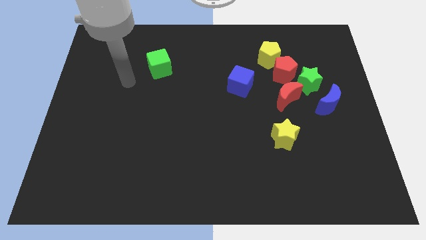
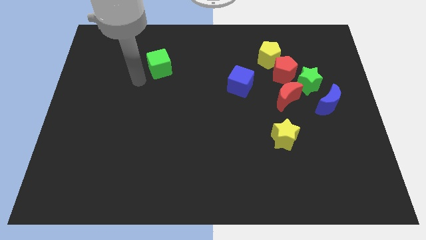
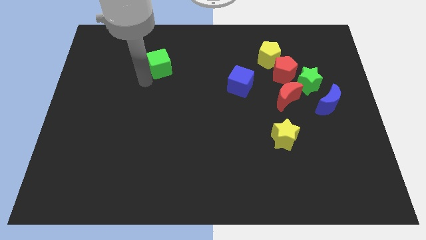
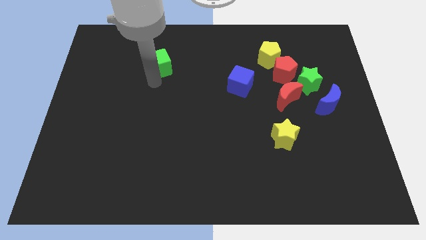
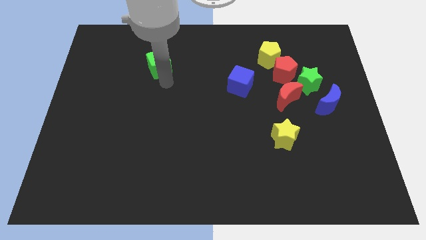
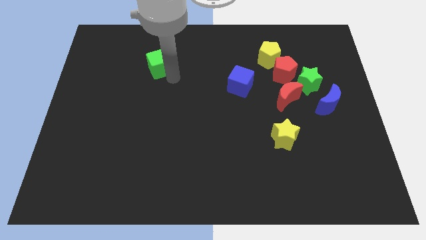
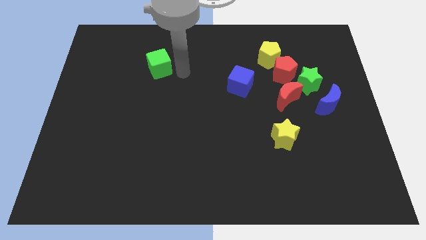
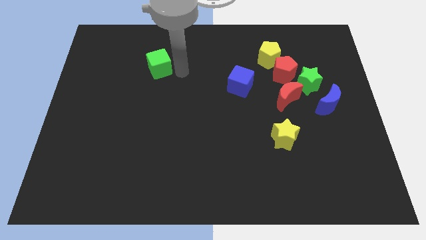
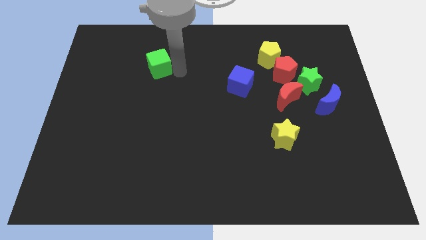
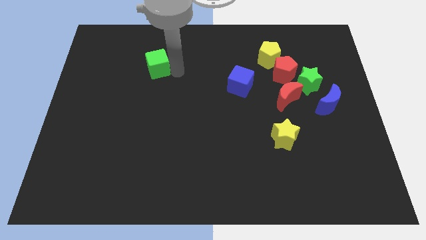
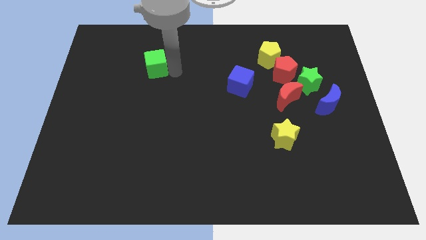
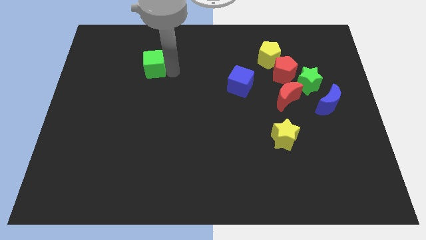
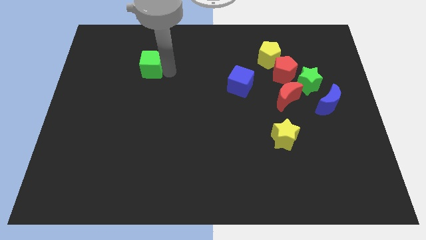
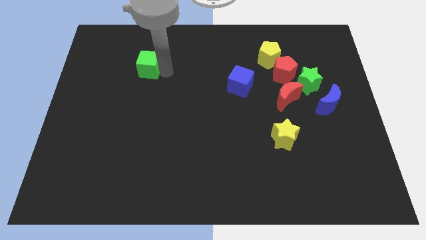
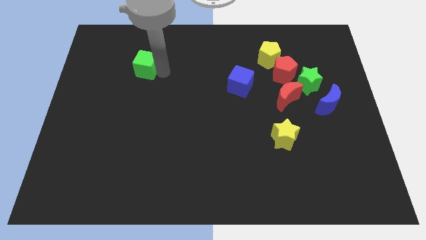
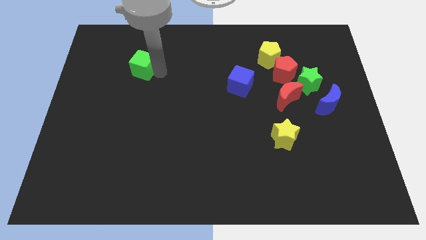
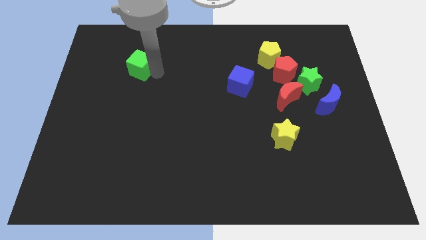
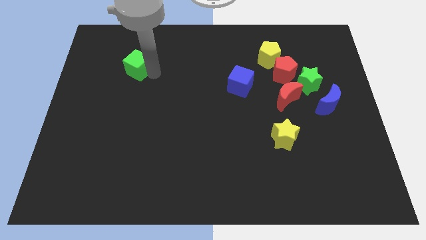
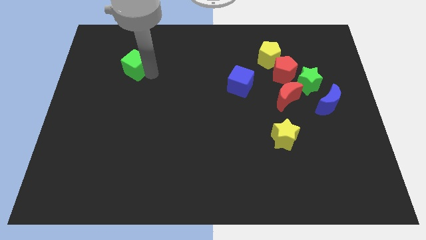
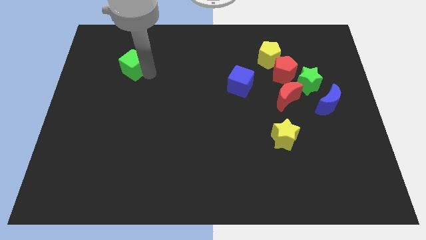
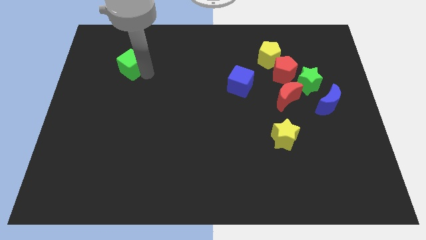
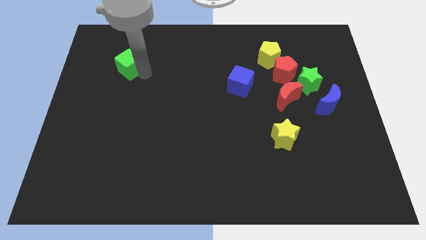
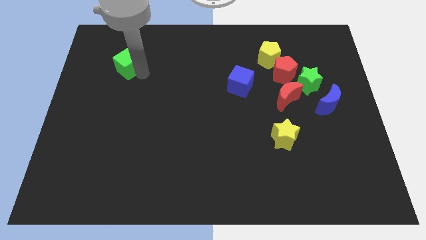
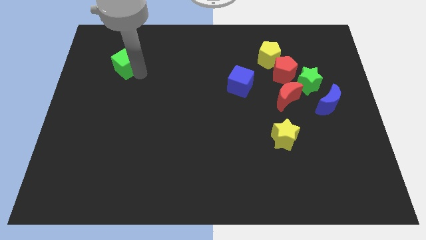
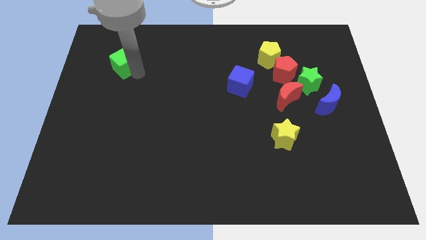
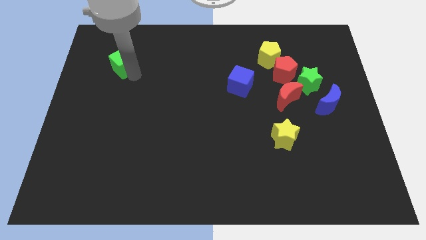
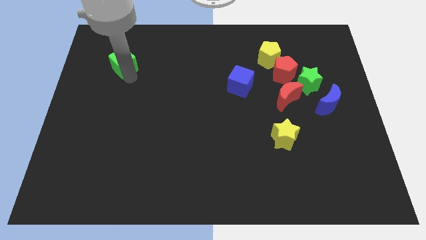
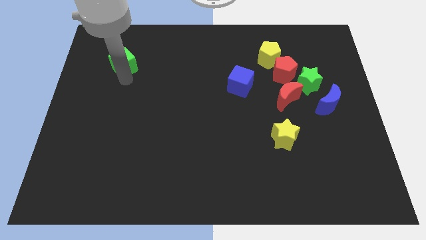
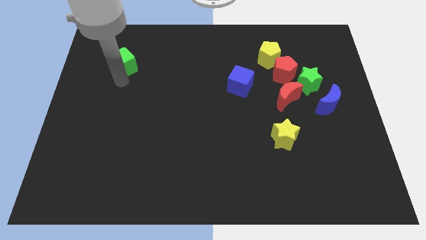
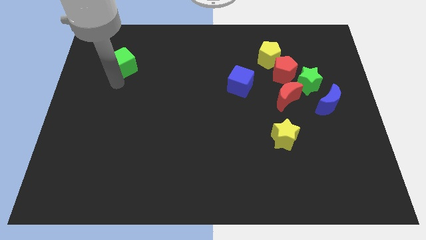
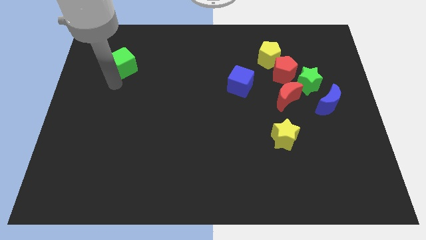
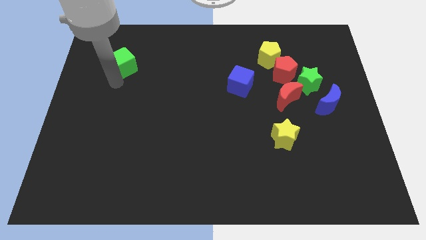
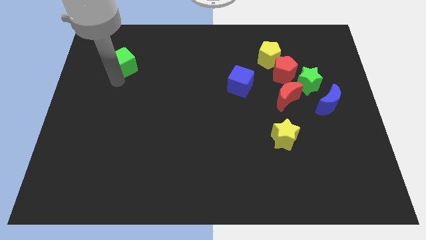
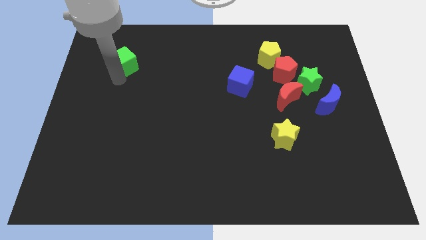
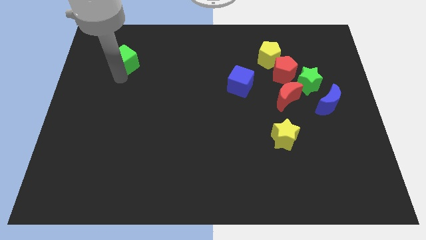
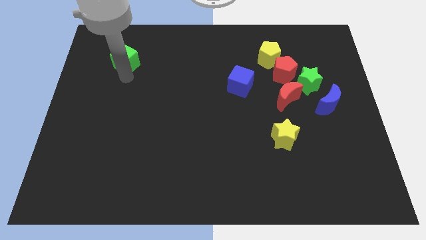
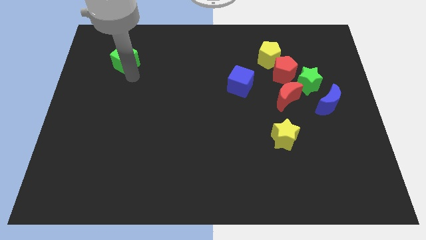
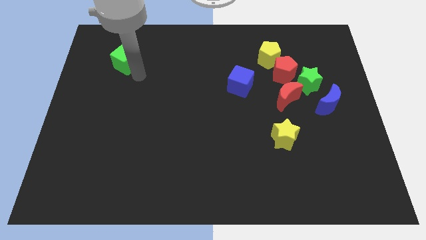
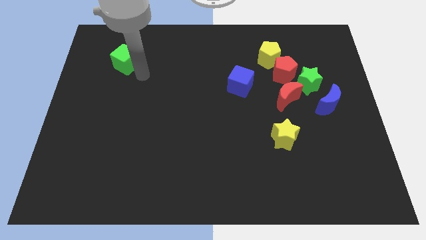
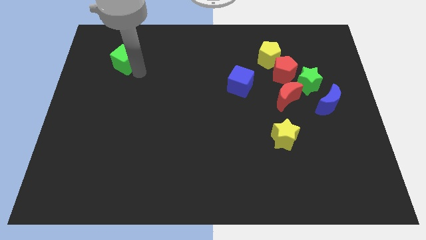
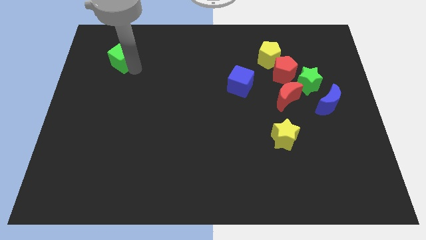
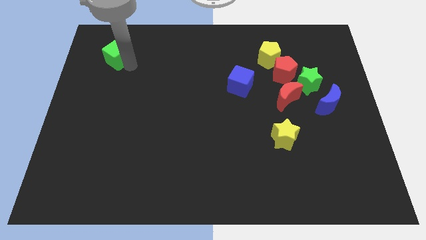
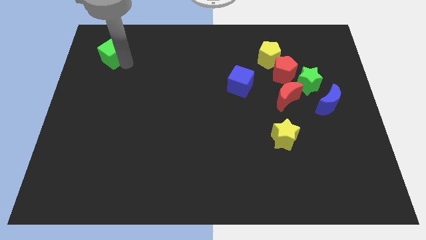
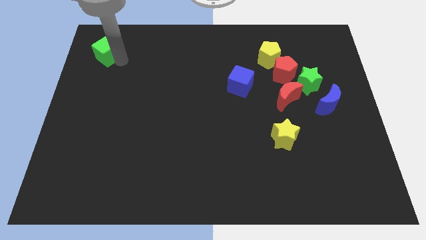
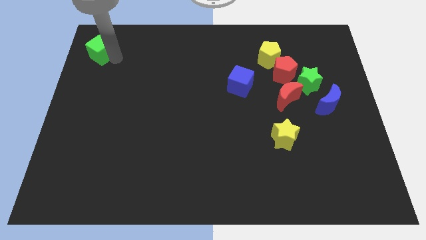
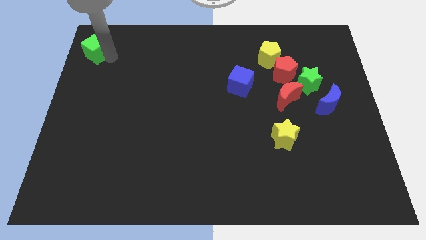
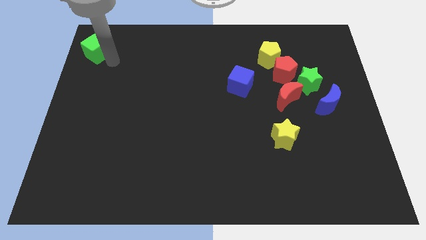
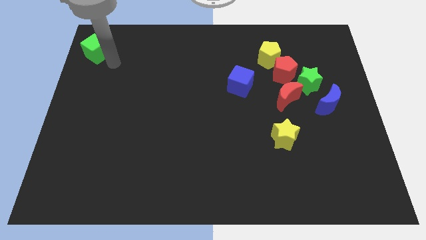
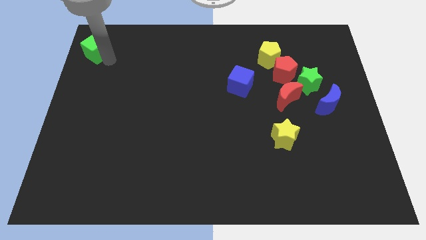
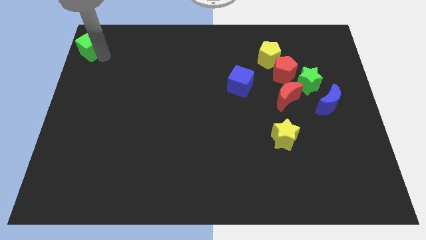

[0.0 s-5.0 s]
move the green cube to the top left corner

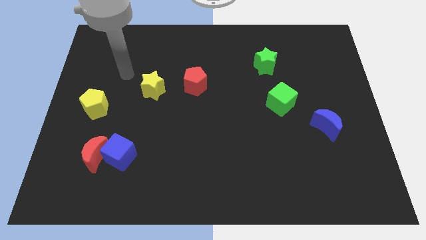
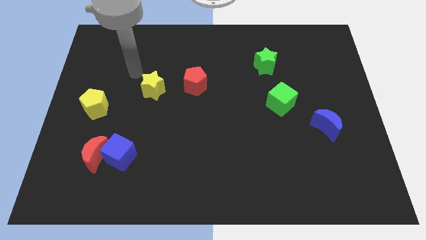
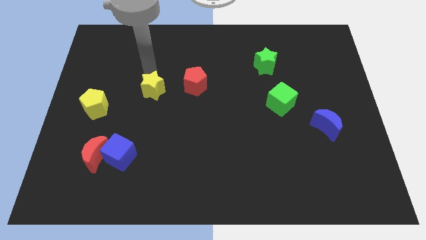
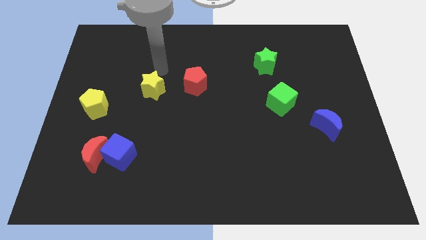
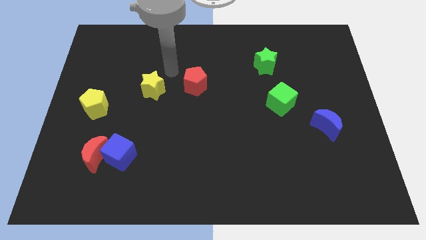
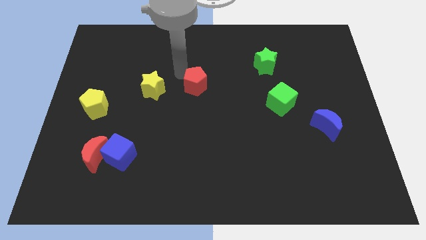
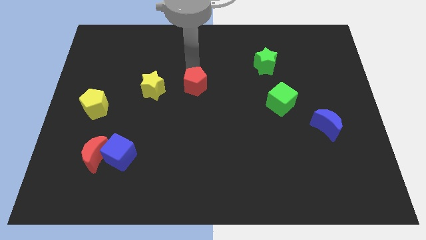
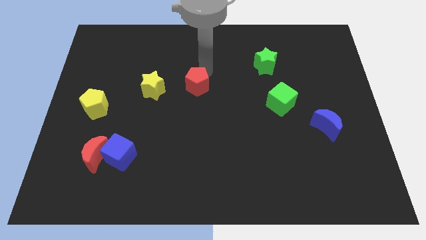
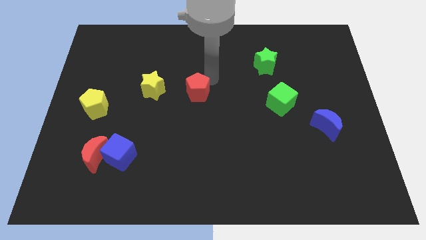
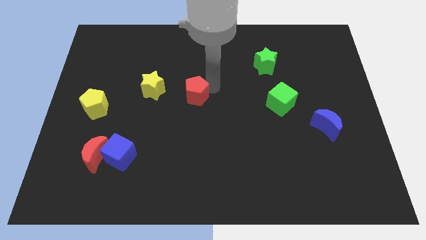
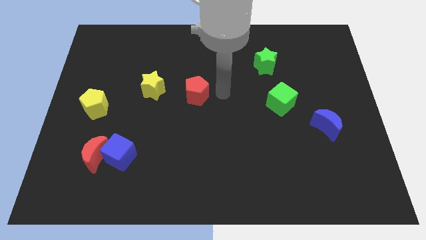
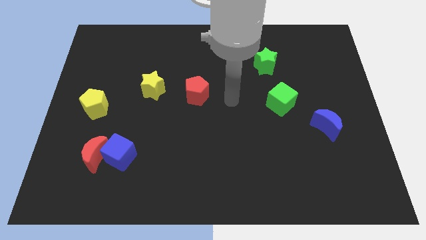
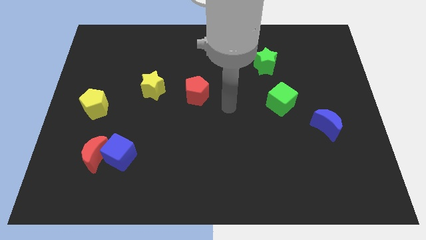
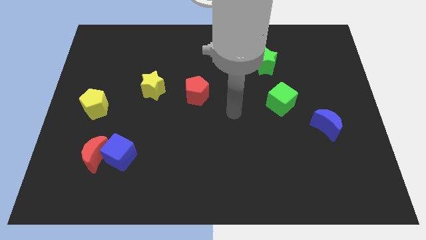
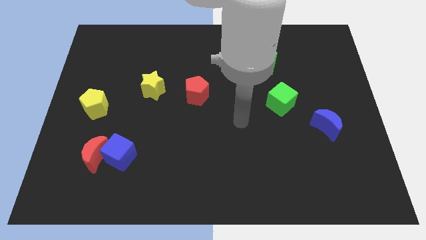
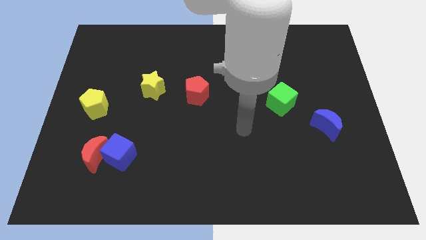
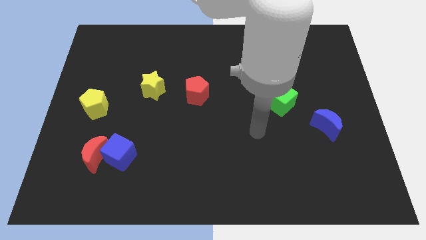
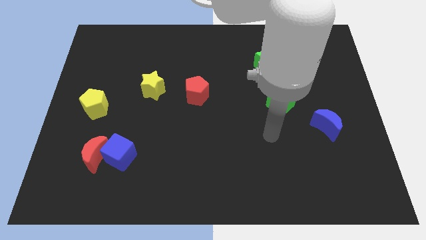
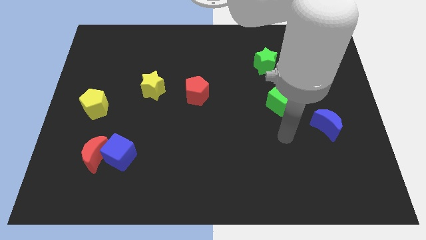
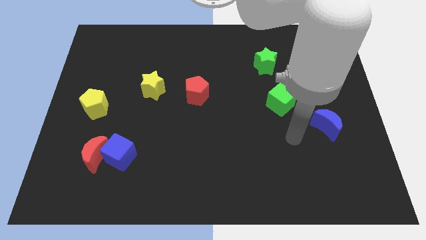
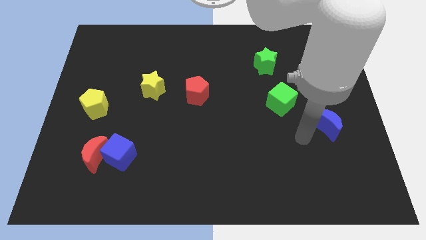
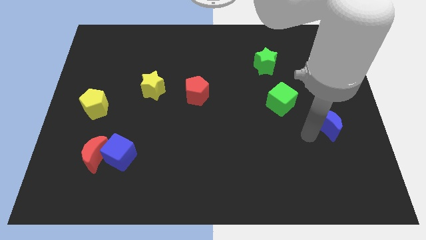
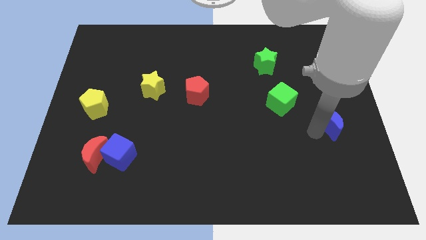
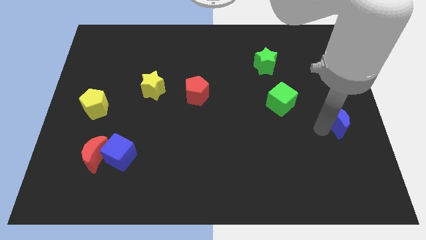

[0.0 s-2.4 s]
push the blue moon to the right side of the board

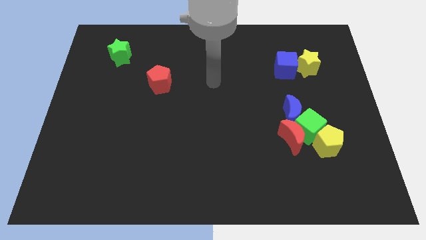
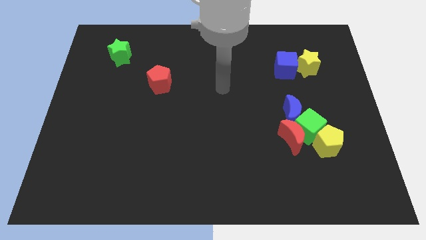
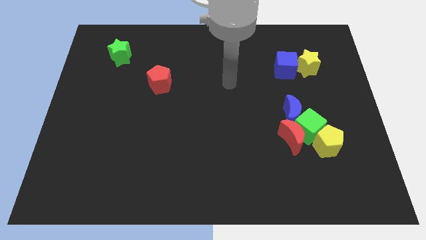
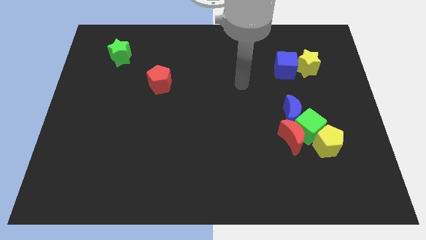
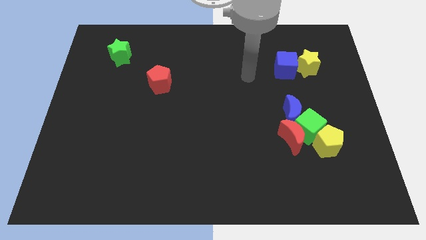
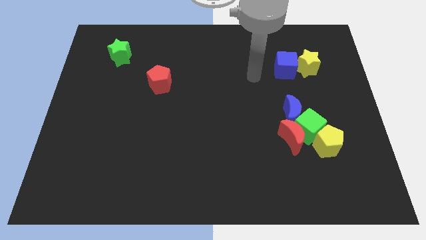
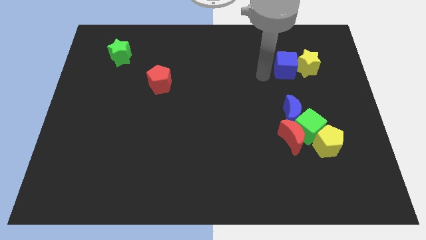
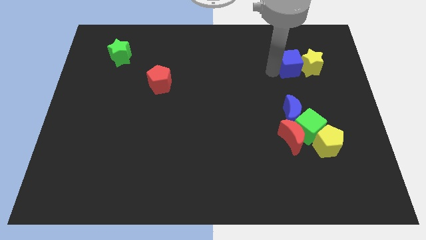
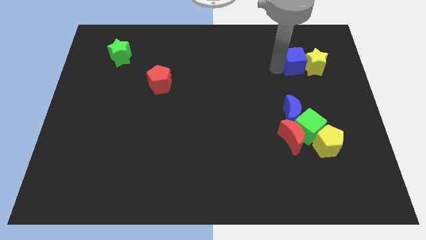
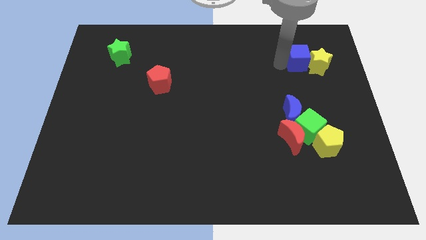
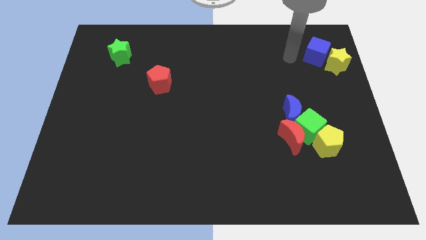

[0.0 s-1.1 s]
slide the yellow star to the right side of the board
